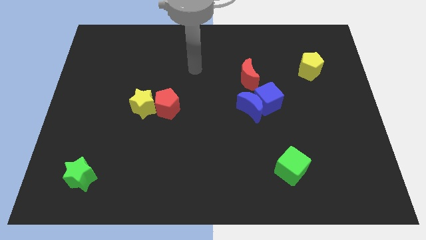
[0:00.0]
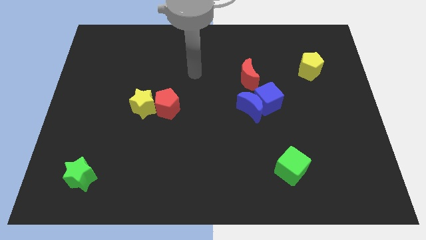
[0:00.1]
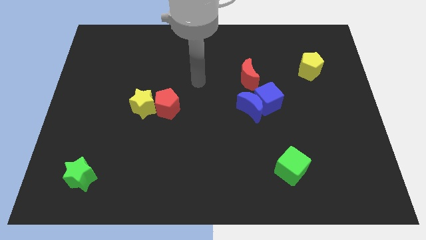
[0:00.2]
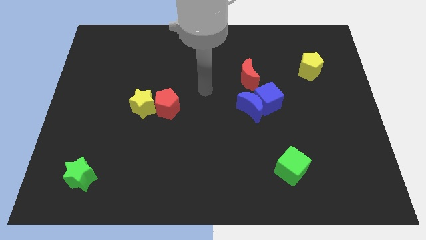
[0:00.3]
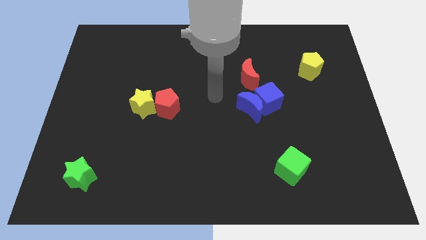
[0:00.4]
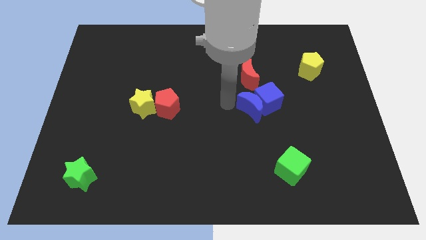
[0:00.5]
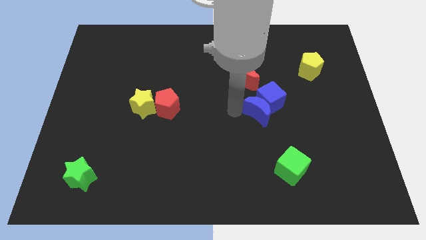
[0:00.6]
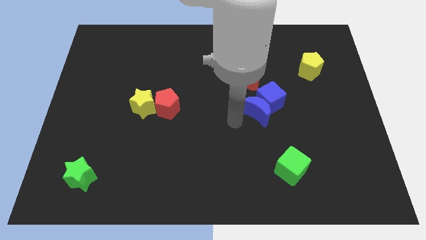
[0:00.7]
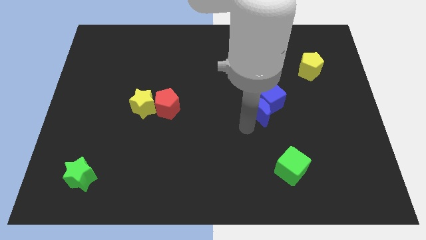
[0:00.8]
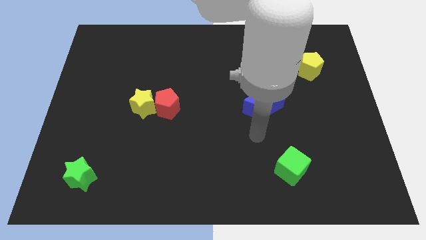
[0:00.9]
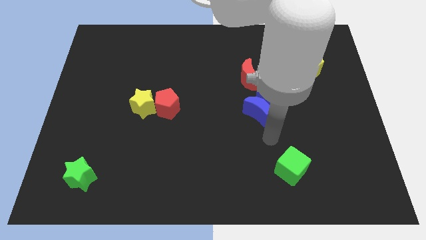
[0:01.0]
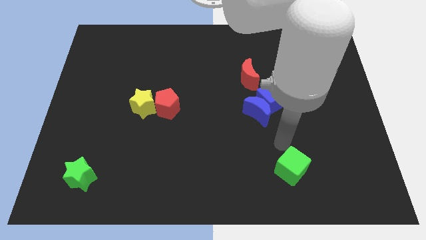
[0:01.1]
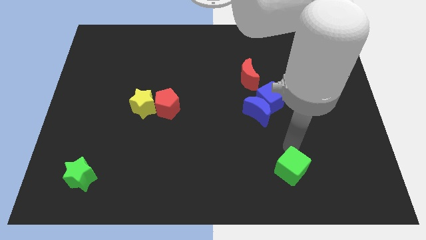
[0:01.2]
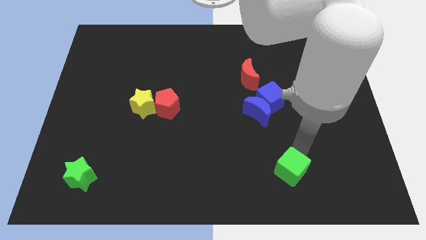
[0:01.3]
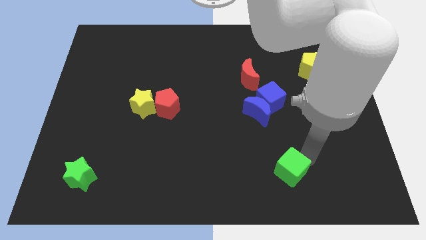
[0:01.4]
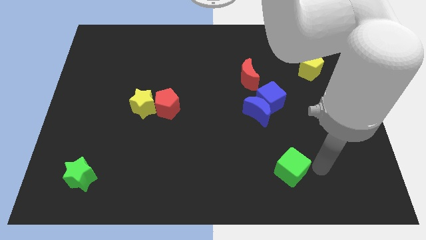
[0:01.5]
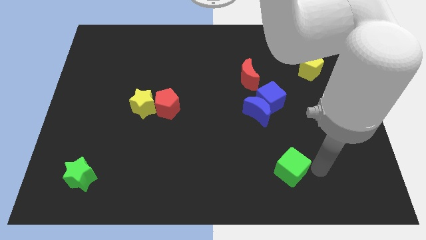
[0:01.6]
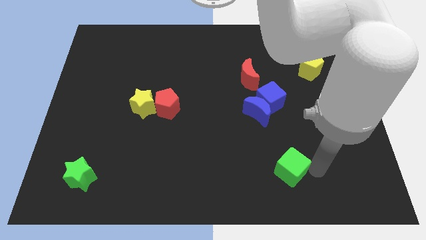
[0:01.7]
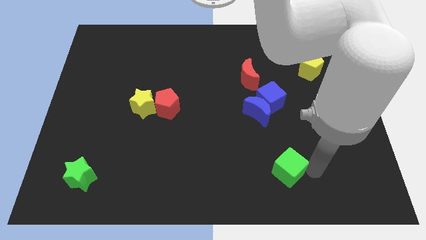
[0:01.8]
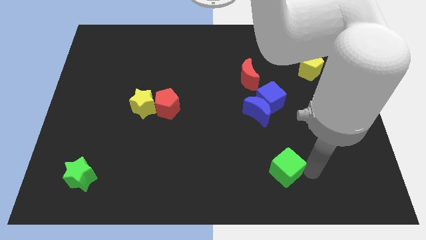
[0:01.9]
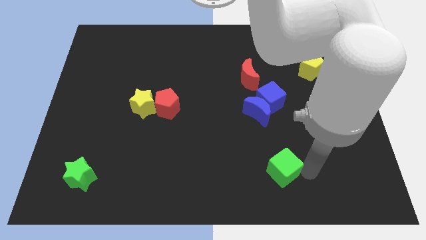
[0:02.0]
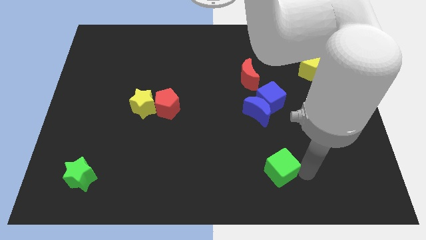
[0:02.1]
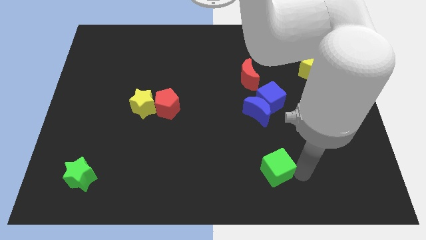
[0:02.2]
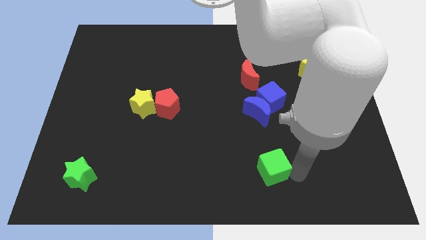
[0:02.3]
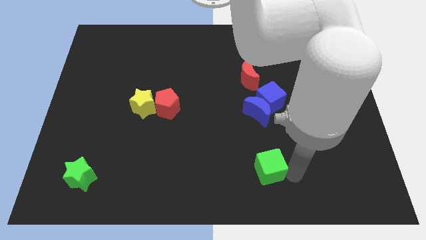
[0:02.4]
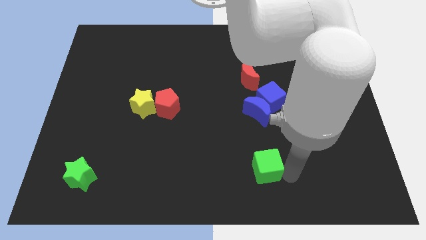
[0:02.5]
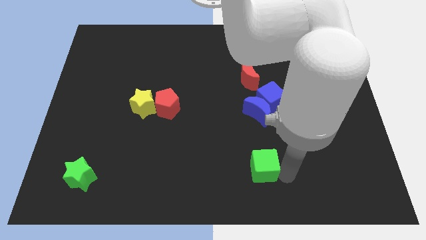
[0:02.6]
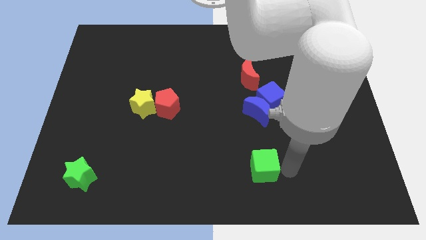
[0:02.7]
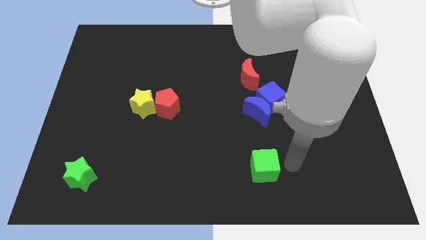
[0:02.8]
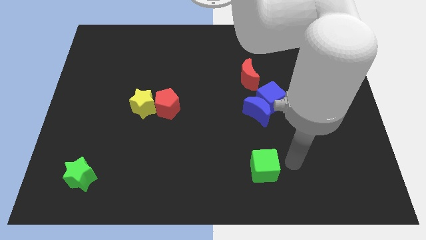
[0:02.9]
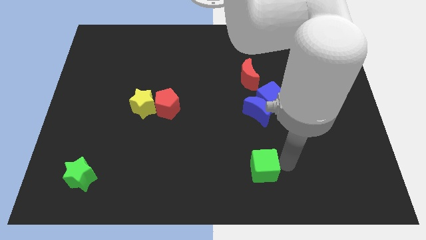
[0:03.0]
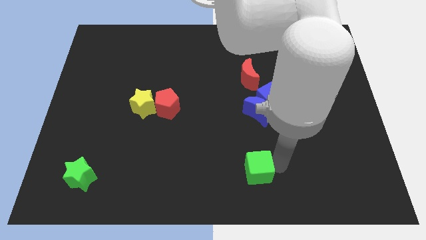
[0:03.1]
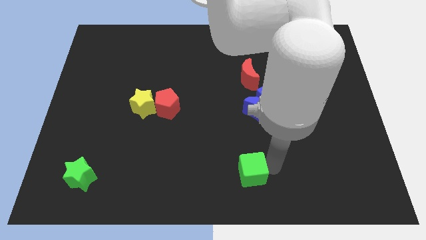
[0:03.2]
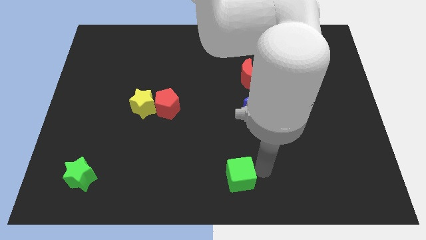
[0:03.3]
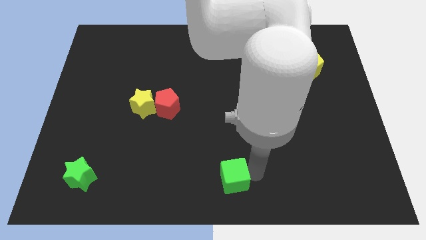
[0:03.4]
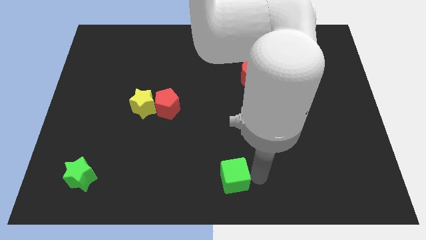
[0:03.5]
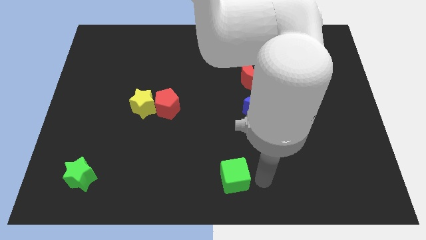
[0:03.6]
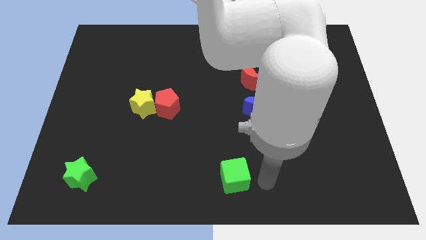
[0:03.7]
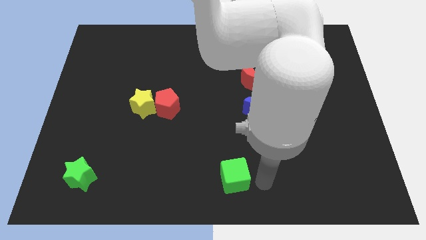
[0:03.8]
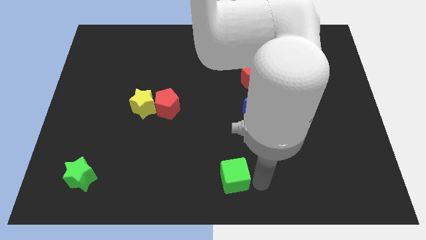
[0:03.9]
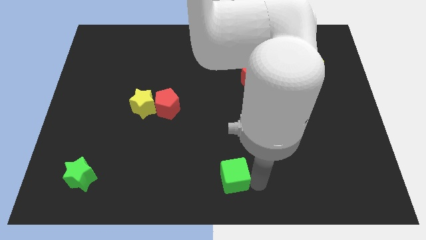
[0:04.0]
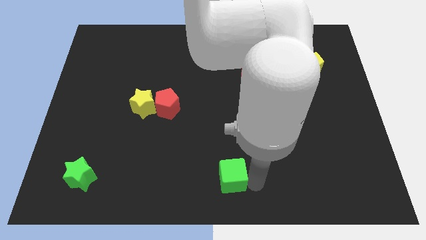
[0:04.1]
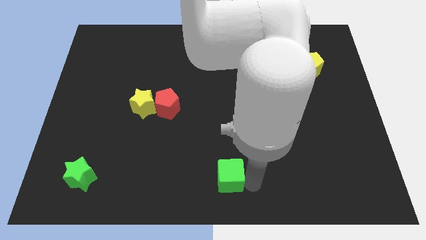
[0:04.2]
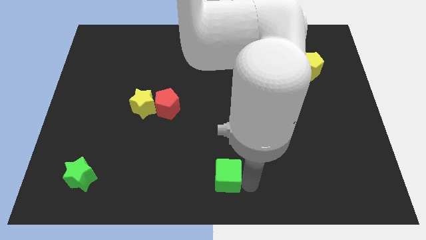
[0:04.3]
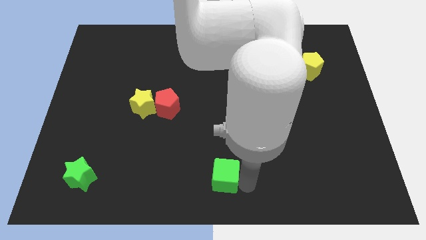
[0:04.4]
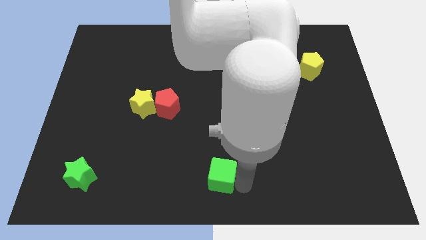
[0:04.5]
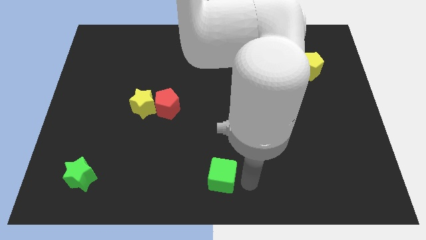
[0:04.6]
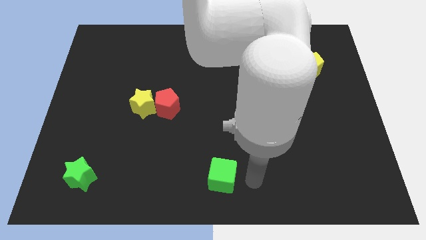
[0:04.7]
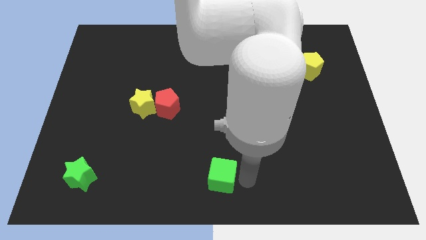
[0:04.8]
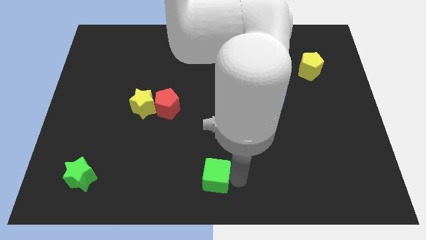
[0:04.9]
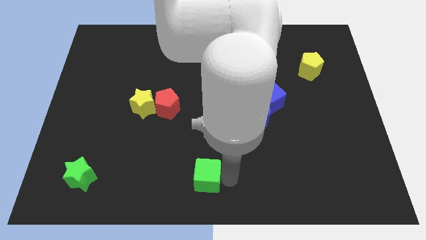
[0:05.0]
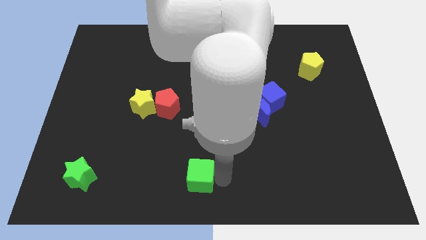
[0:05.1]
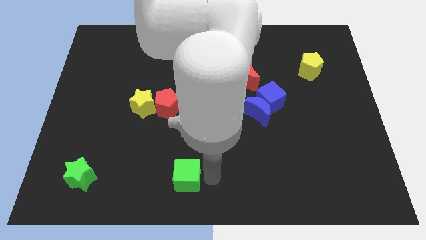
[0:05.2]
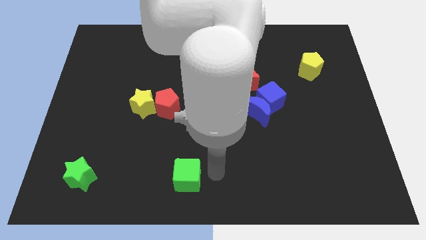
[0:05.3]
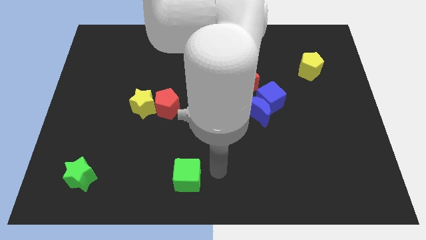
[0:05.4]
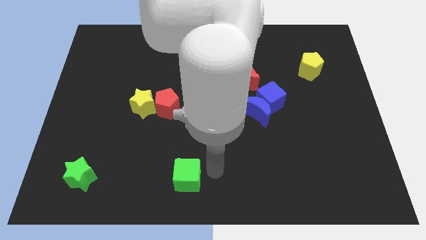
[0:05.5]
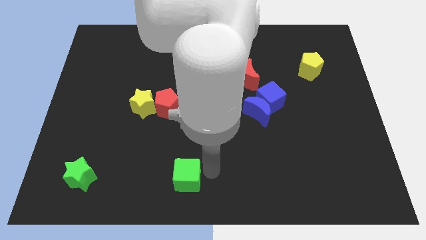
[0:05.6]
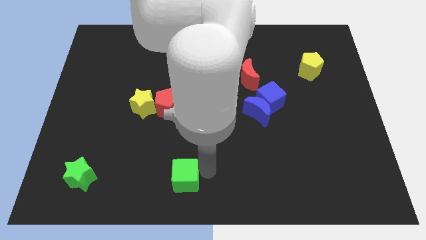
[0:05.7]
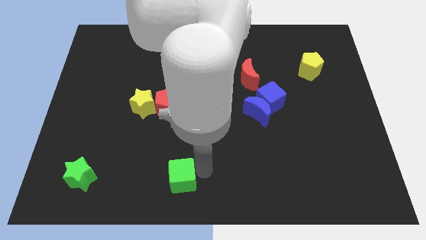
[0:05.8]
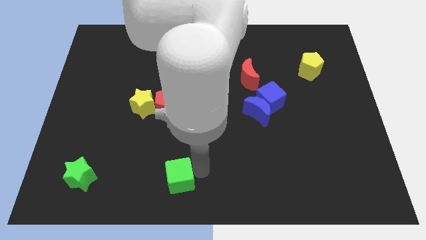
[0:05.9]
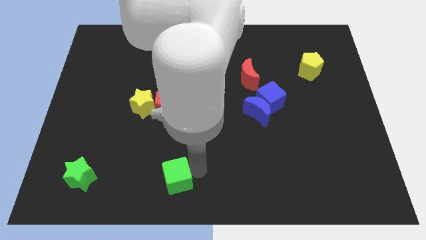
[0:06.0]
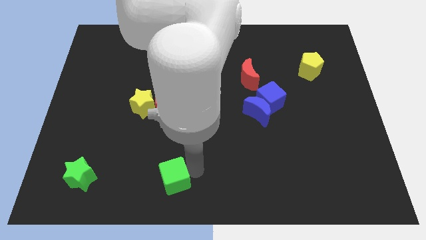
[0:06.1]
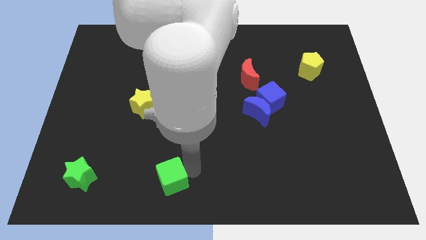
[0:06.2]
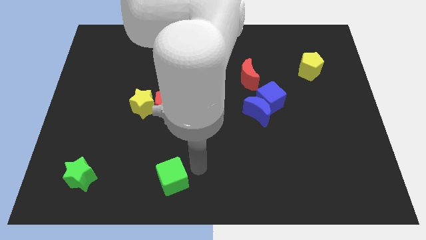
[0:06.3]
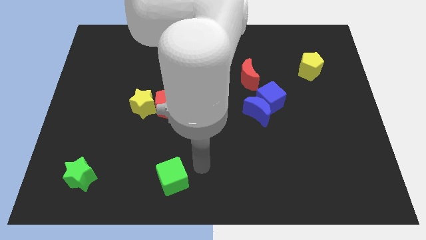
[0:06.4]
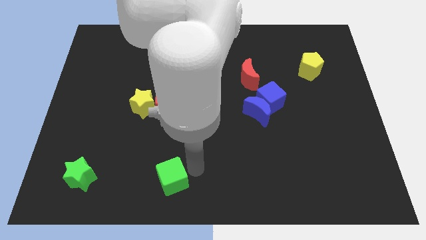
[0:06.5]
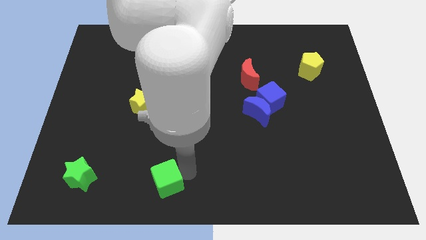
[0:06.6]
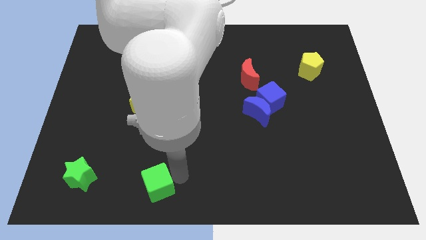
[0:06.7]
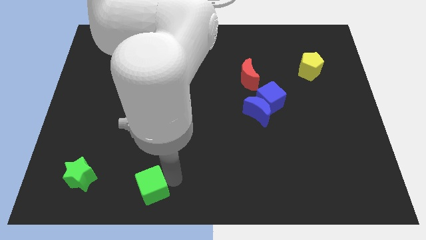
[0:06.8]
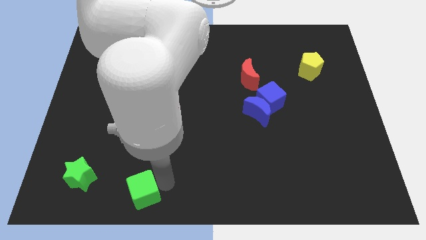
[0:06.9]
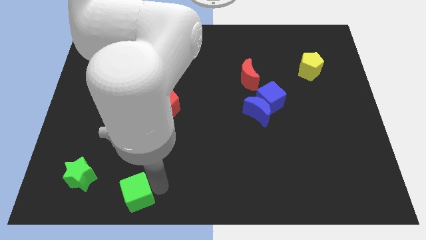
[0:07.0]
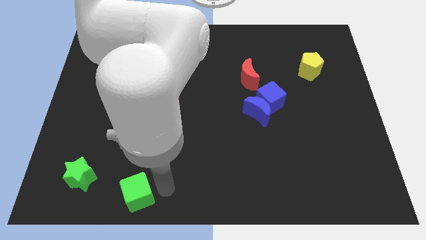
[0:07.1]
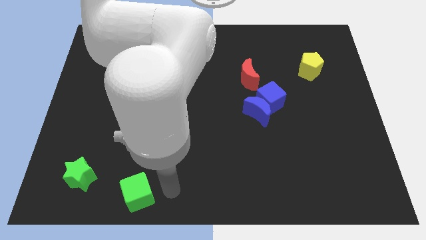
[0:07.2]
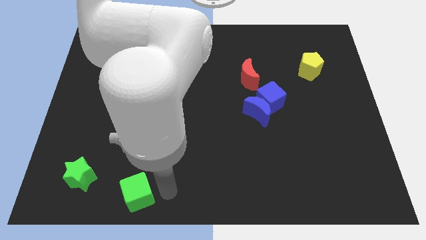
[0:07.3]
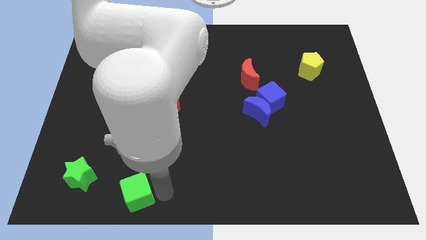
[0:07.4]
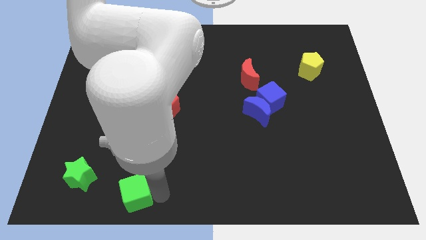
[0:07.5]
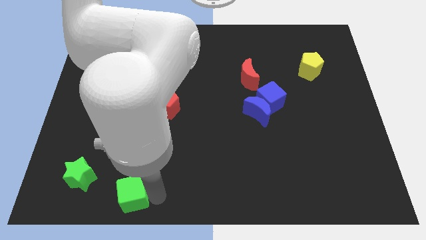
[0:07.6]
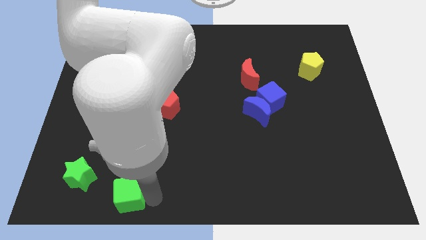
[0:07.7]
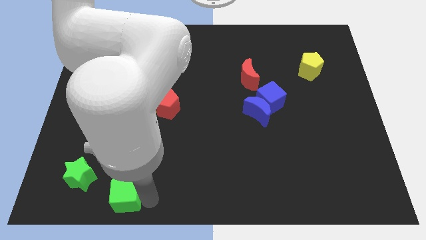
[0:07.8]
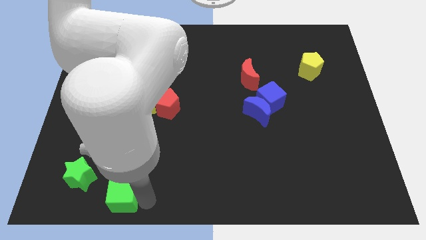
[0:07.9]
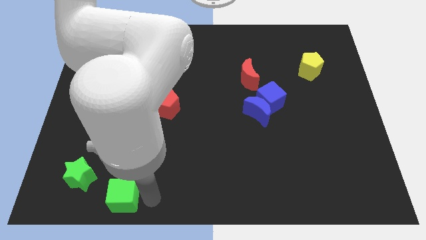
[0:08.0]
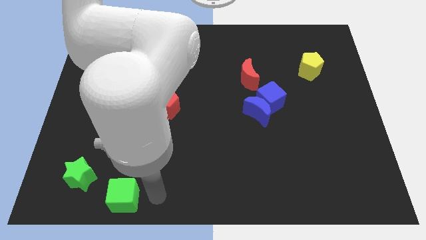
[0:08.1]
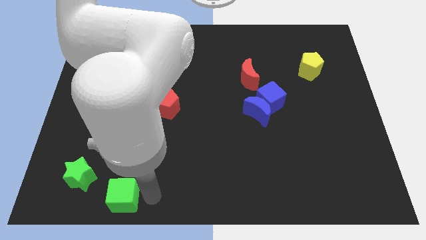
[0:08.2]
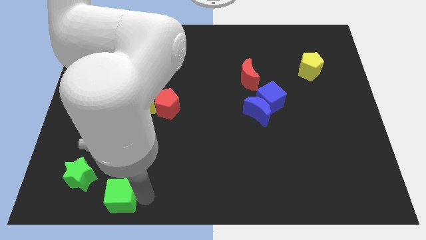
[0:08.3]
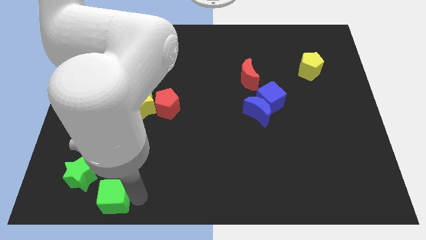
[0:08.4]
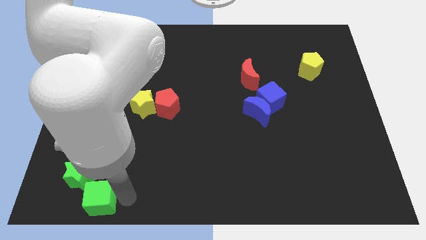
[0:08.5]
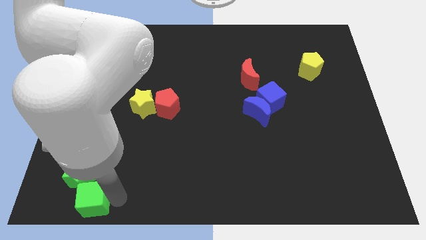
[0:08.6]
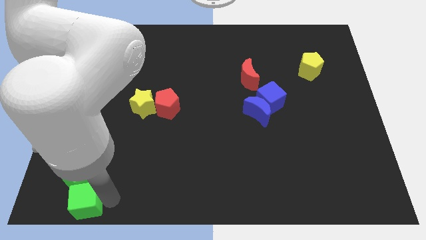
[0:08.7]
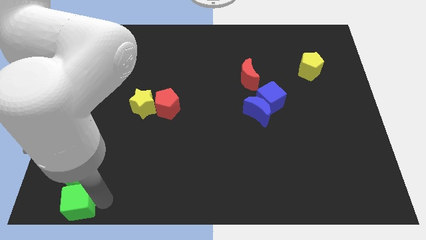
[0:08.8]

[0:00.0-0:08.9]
slide the green cube to the bottom left of the board
